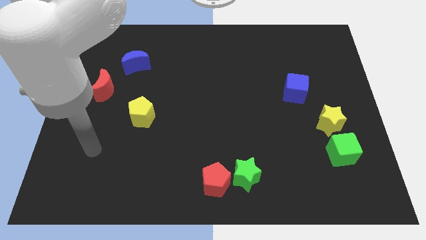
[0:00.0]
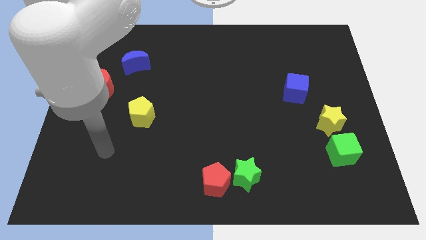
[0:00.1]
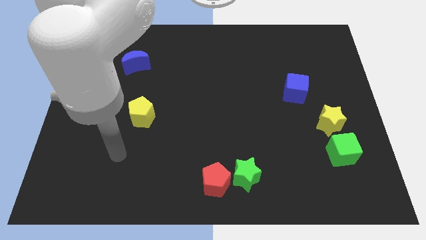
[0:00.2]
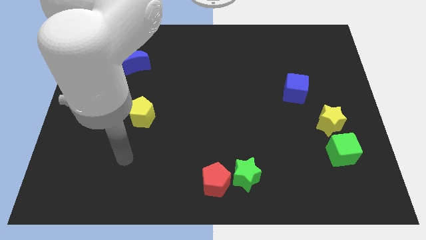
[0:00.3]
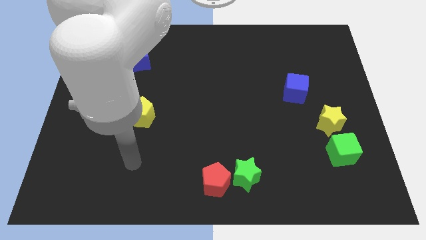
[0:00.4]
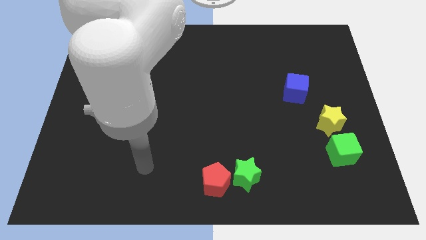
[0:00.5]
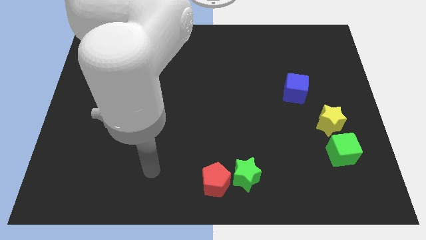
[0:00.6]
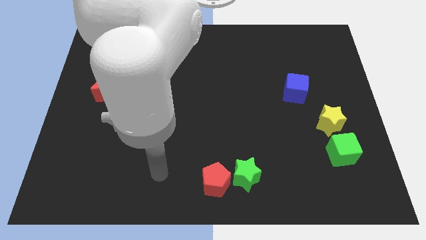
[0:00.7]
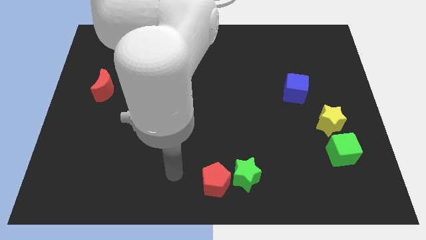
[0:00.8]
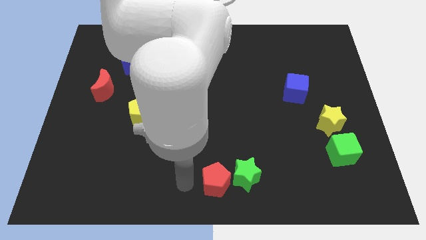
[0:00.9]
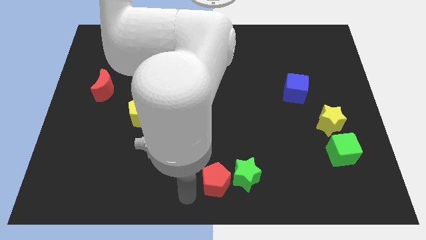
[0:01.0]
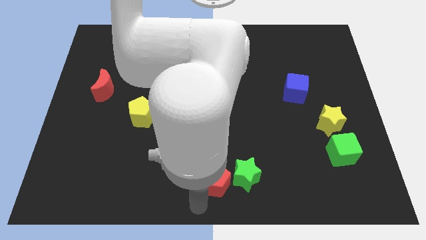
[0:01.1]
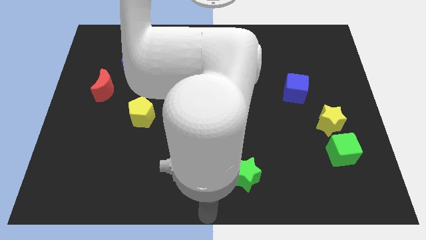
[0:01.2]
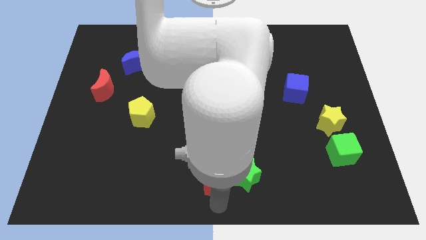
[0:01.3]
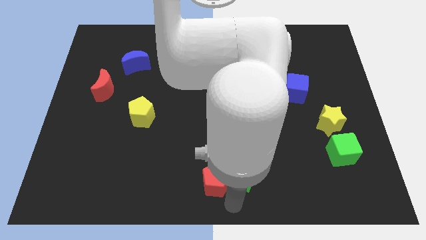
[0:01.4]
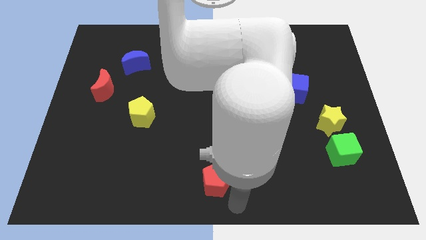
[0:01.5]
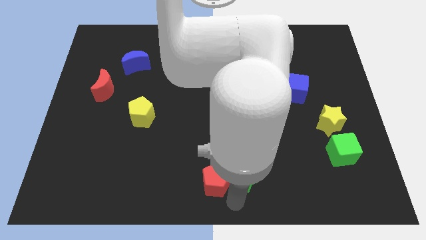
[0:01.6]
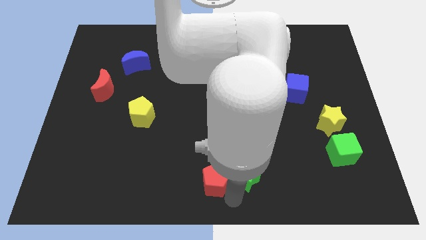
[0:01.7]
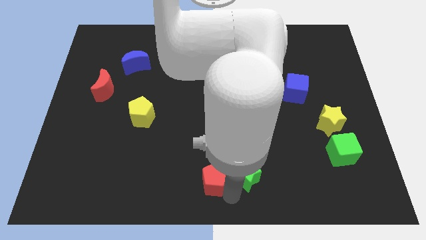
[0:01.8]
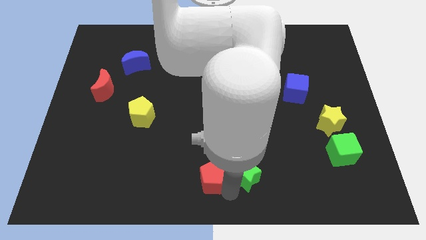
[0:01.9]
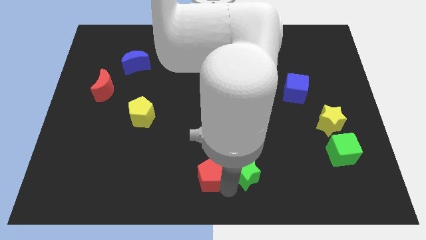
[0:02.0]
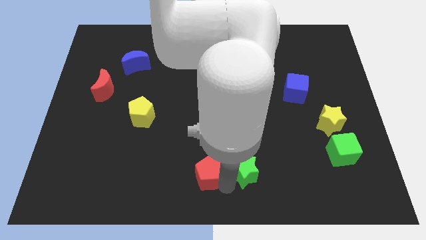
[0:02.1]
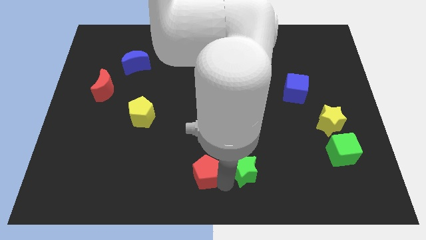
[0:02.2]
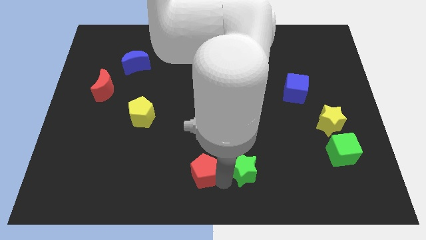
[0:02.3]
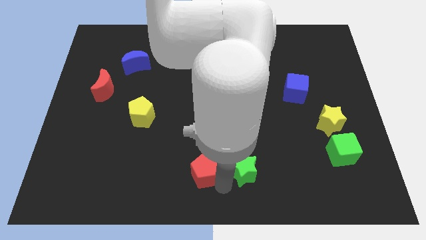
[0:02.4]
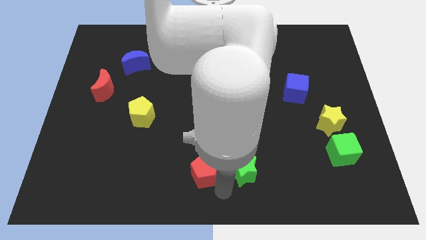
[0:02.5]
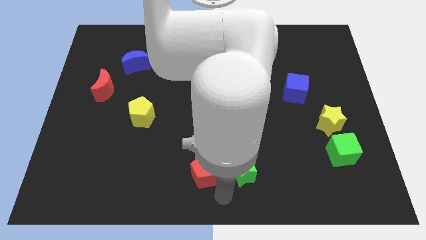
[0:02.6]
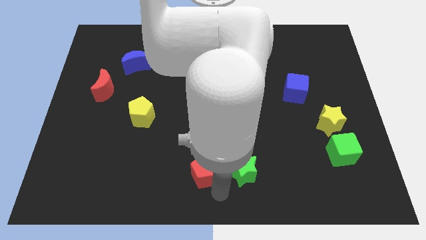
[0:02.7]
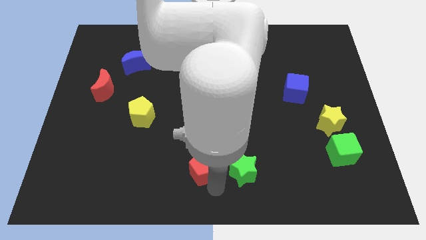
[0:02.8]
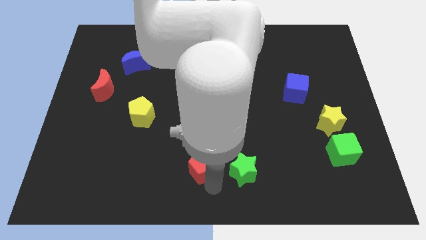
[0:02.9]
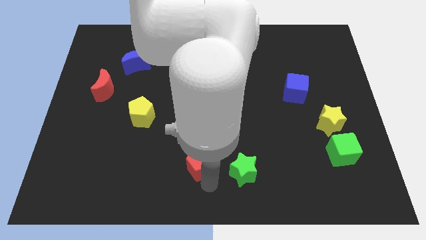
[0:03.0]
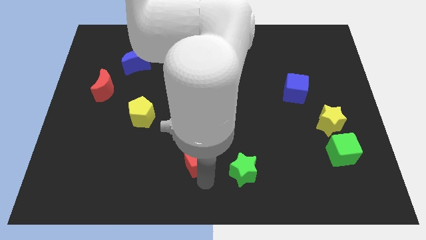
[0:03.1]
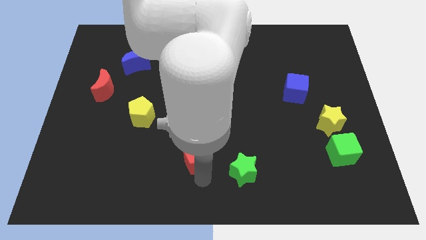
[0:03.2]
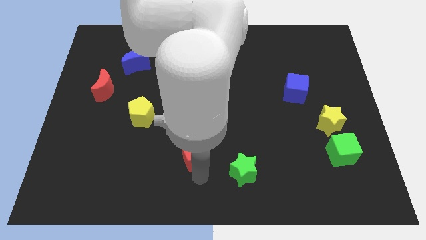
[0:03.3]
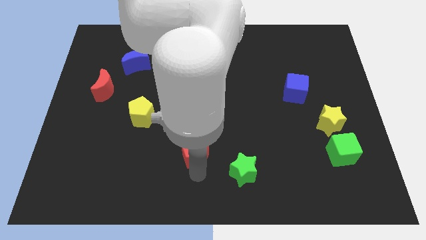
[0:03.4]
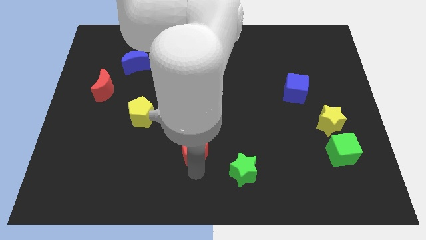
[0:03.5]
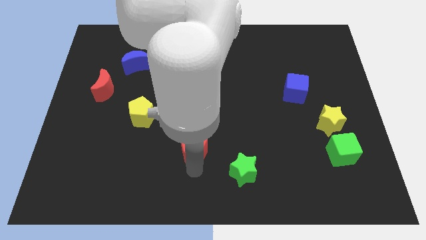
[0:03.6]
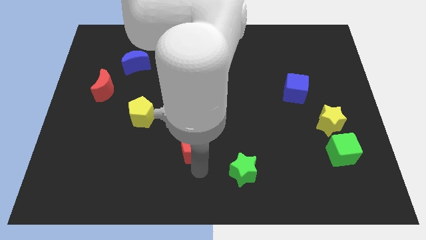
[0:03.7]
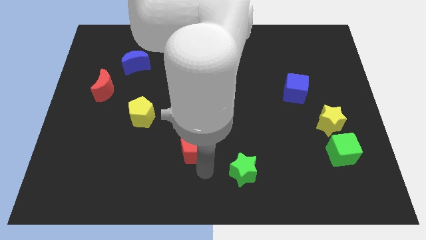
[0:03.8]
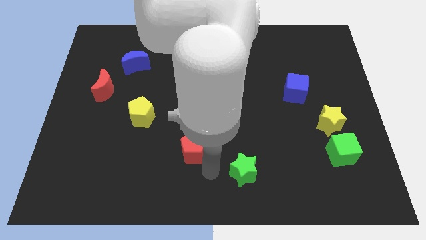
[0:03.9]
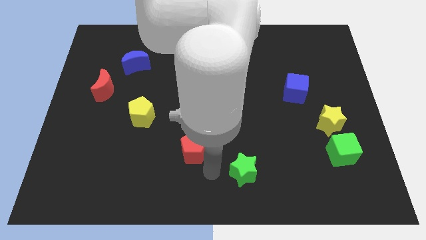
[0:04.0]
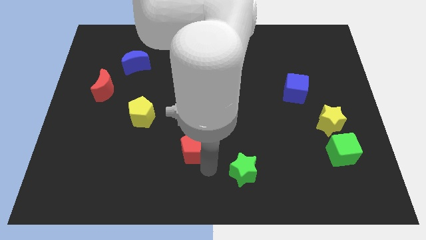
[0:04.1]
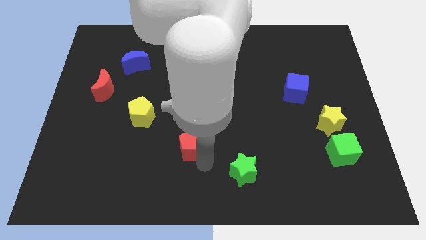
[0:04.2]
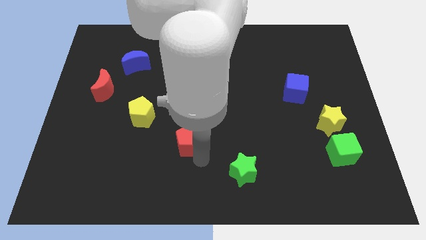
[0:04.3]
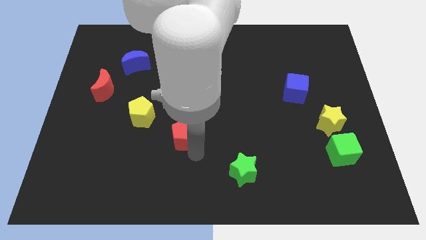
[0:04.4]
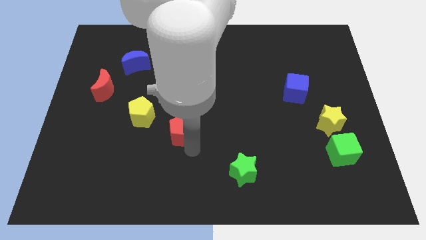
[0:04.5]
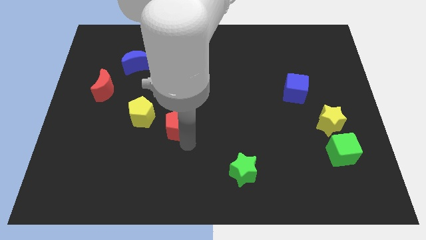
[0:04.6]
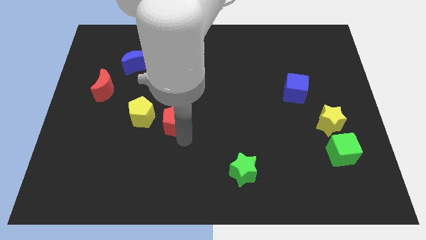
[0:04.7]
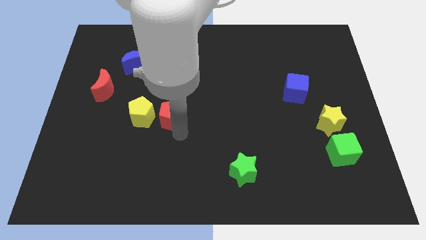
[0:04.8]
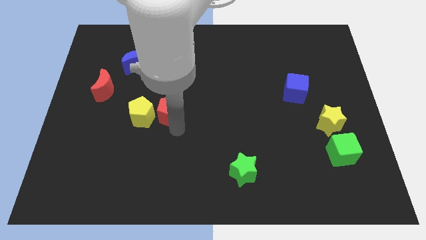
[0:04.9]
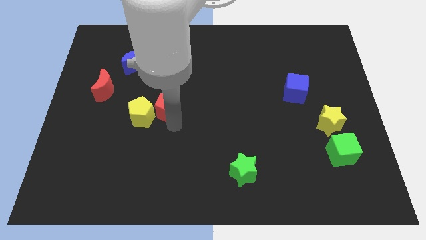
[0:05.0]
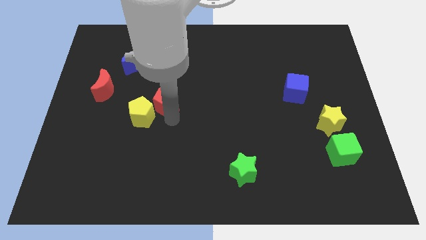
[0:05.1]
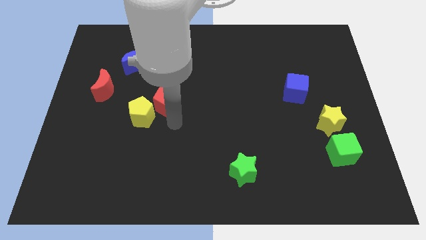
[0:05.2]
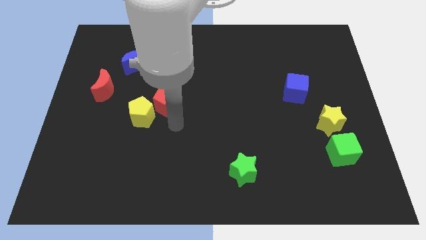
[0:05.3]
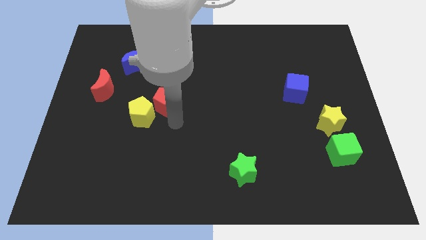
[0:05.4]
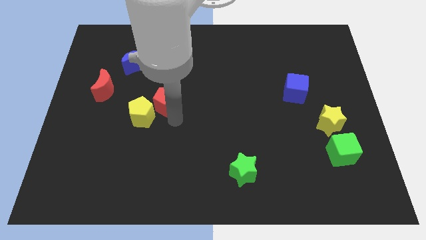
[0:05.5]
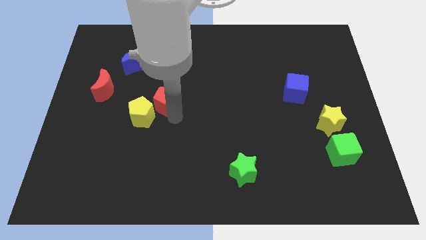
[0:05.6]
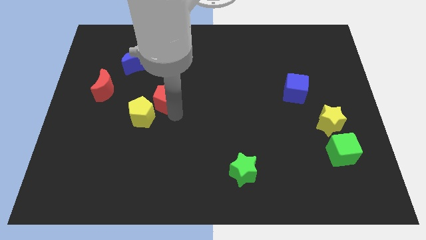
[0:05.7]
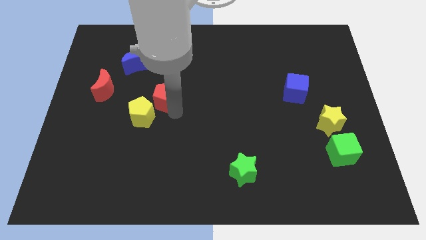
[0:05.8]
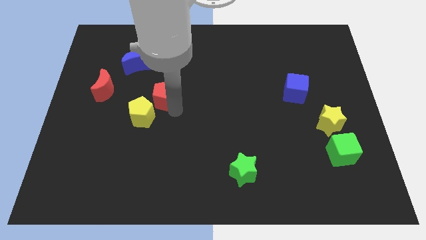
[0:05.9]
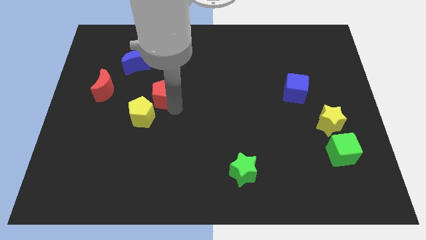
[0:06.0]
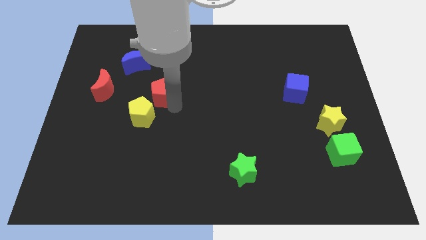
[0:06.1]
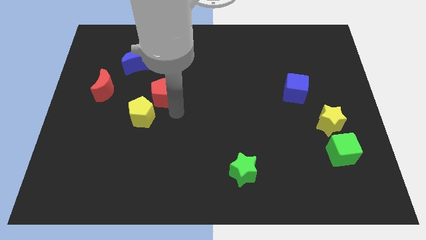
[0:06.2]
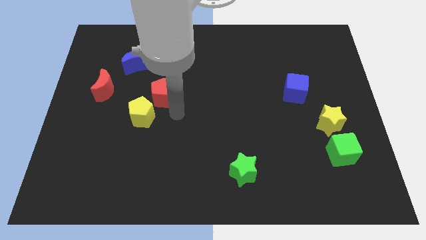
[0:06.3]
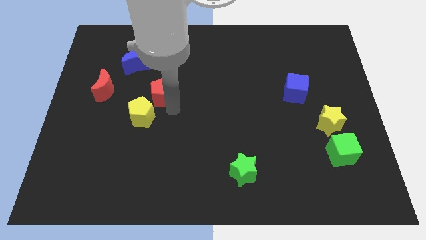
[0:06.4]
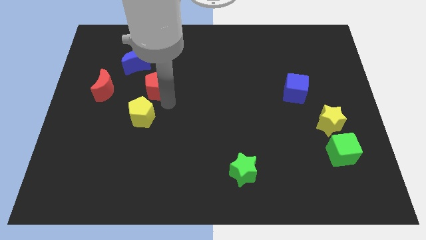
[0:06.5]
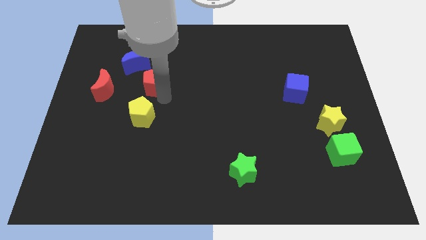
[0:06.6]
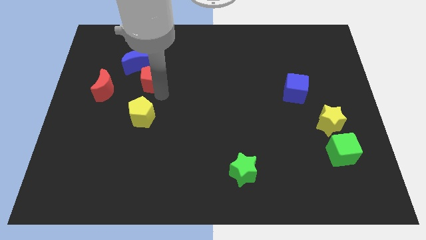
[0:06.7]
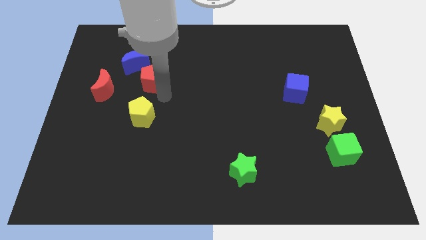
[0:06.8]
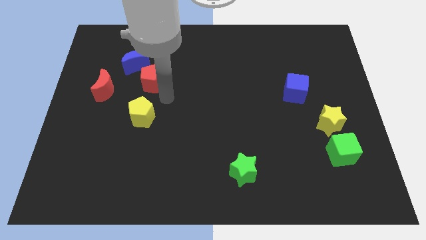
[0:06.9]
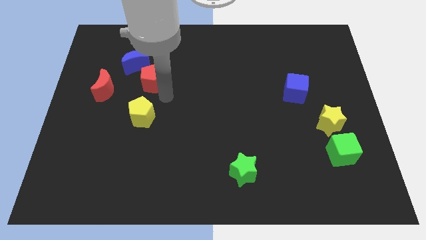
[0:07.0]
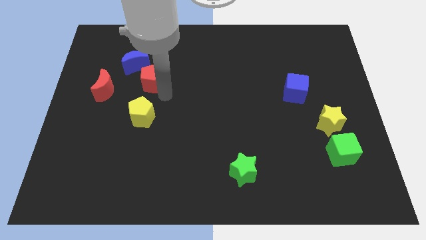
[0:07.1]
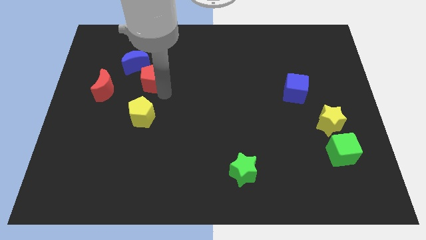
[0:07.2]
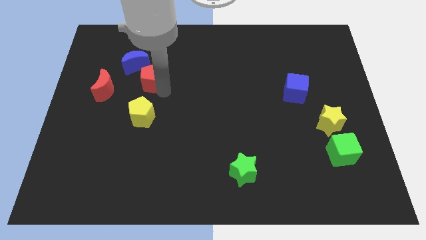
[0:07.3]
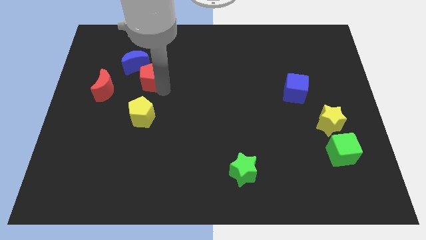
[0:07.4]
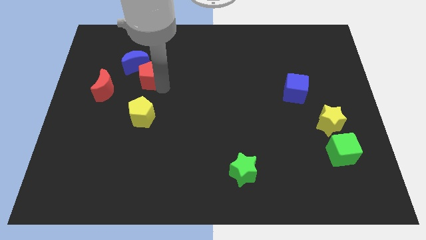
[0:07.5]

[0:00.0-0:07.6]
push the red pentagon close to the blue moon
